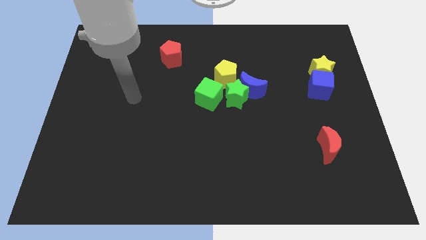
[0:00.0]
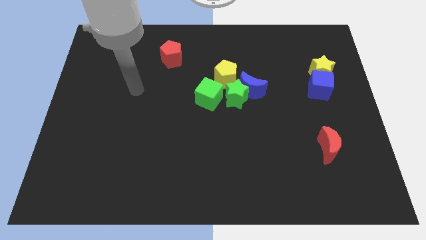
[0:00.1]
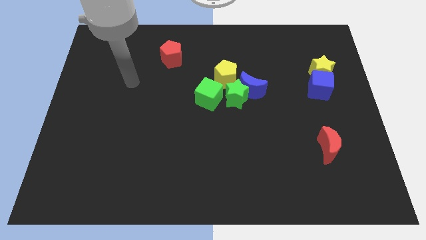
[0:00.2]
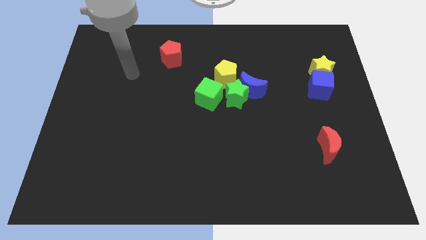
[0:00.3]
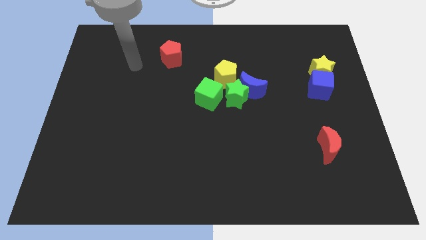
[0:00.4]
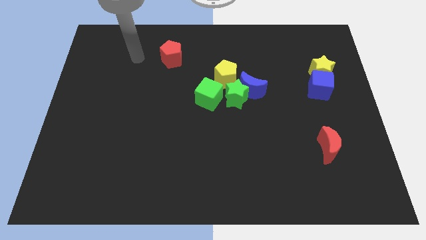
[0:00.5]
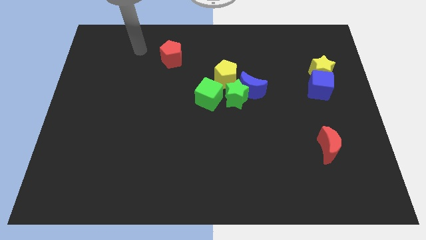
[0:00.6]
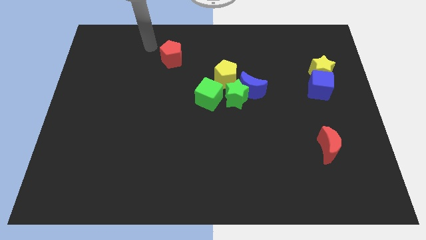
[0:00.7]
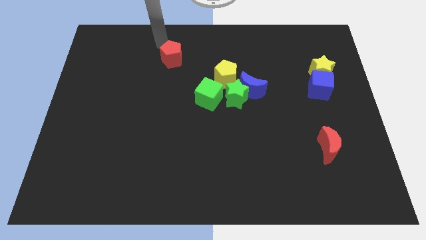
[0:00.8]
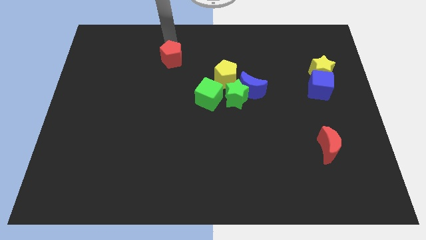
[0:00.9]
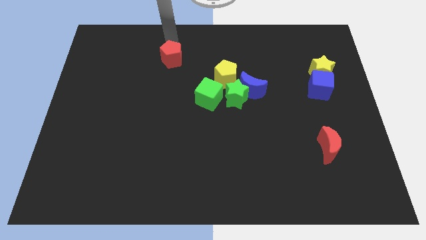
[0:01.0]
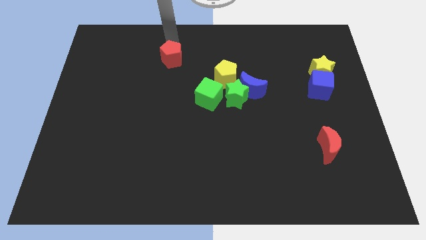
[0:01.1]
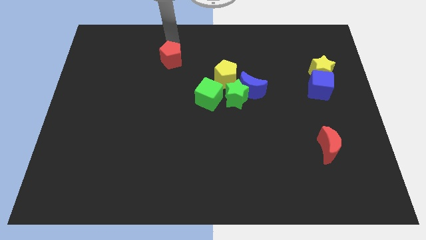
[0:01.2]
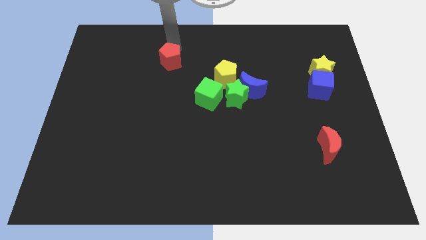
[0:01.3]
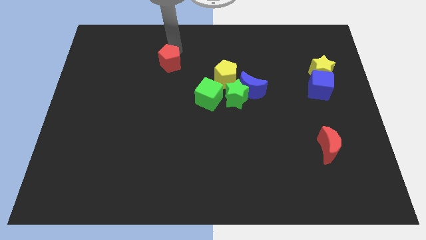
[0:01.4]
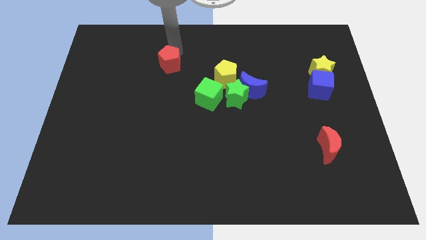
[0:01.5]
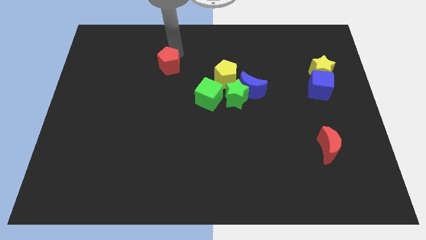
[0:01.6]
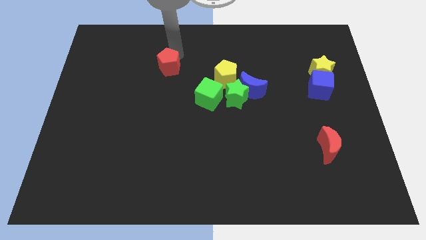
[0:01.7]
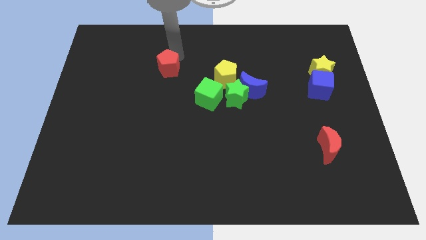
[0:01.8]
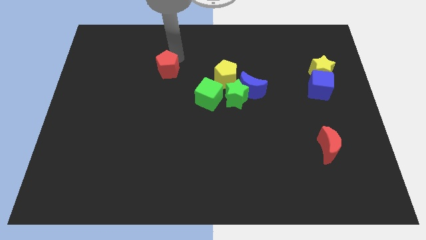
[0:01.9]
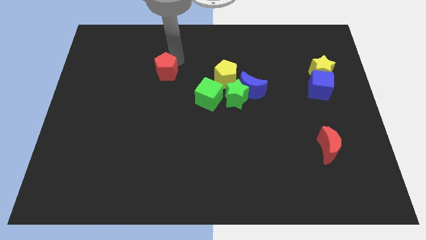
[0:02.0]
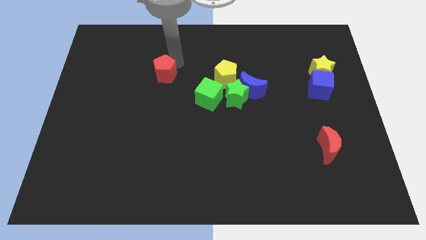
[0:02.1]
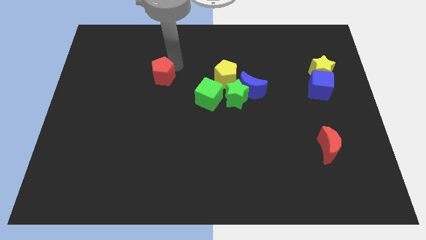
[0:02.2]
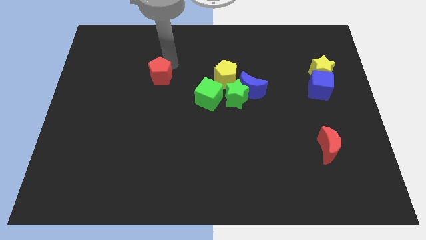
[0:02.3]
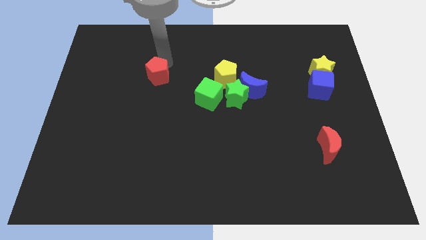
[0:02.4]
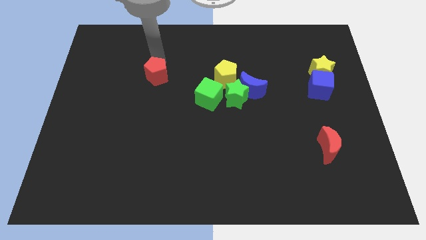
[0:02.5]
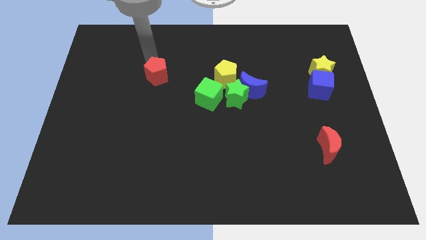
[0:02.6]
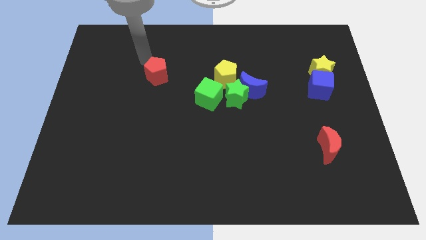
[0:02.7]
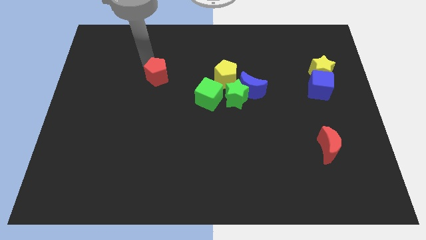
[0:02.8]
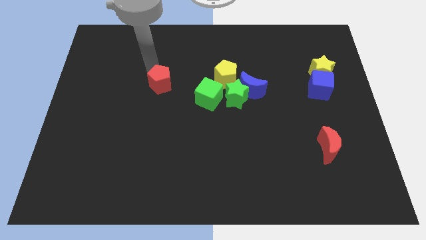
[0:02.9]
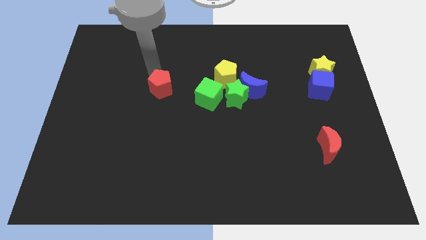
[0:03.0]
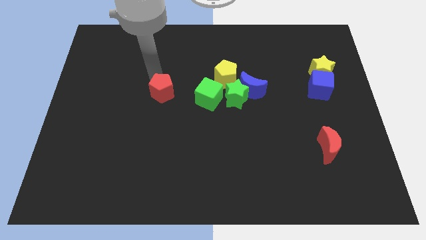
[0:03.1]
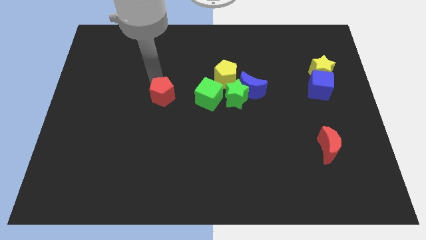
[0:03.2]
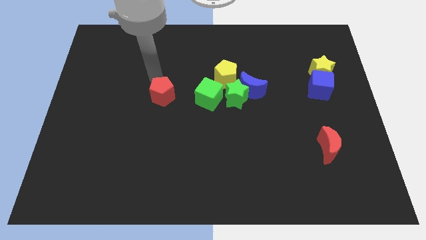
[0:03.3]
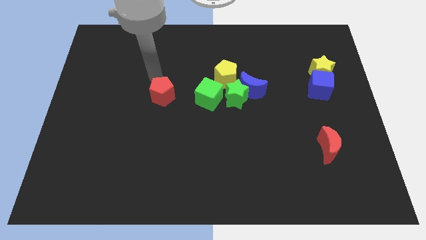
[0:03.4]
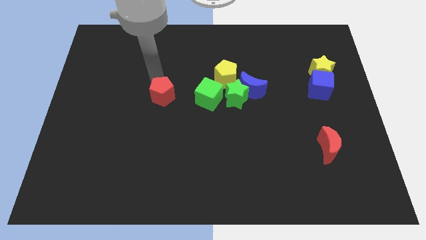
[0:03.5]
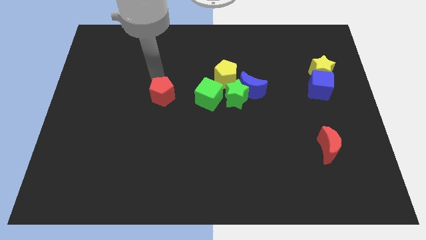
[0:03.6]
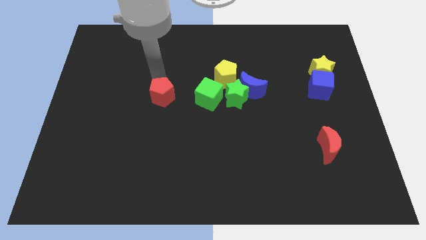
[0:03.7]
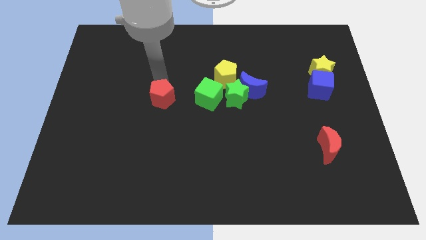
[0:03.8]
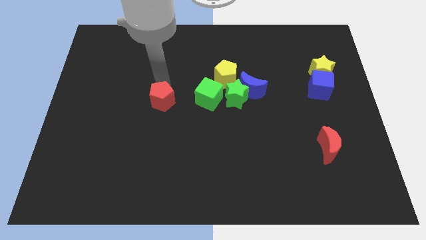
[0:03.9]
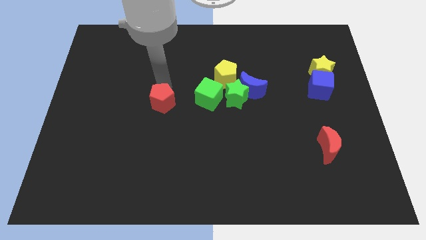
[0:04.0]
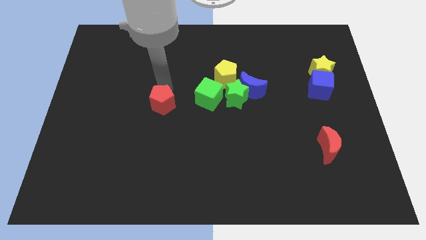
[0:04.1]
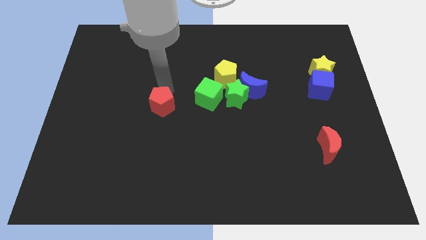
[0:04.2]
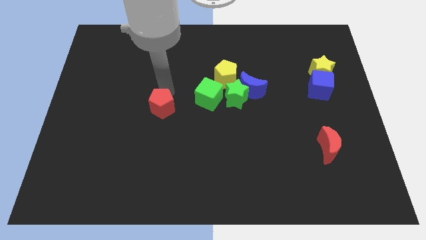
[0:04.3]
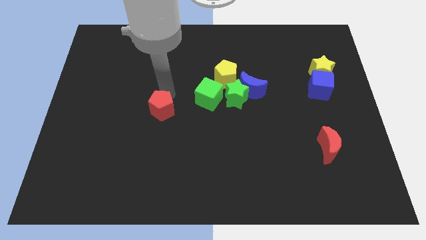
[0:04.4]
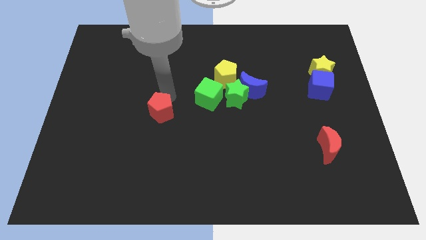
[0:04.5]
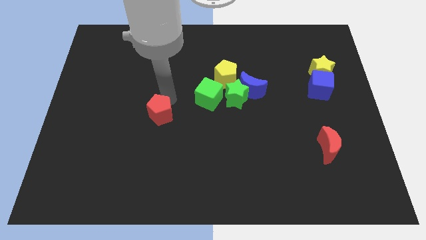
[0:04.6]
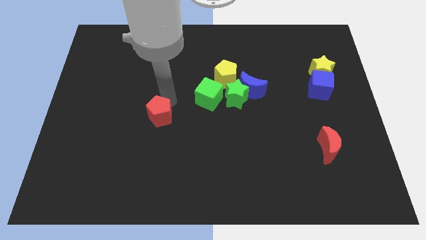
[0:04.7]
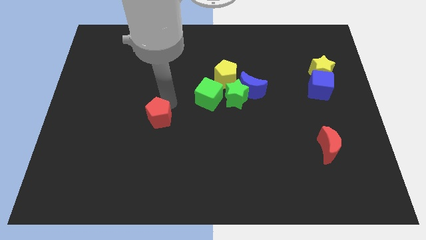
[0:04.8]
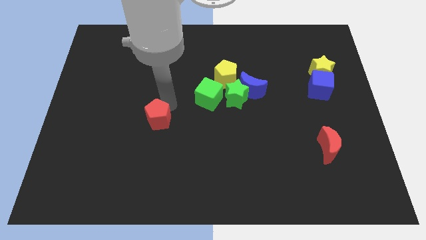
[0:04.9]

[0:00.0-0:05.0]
slide the red pentagon down

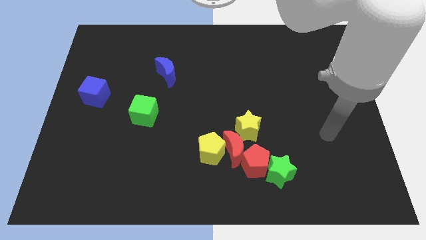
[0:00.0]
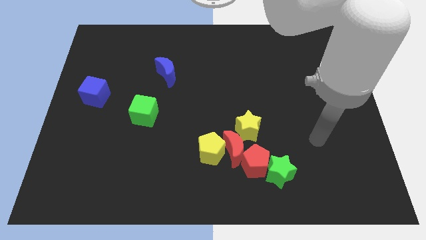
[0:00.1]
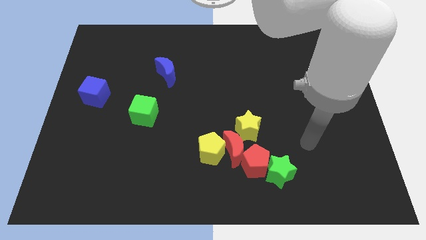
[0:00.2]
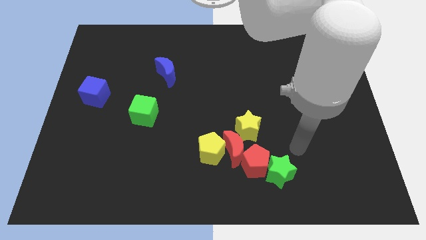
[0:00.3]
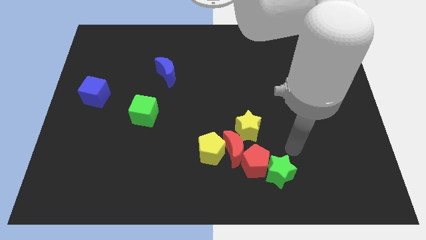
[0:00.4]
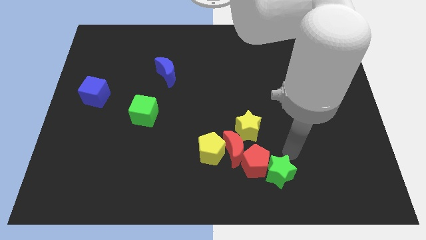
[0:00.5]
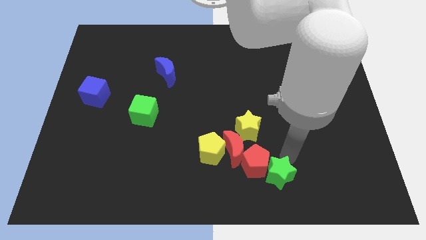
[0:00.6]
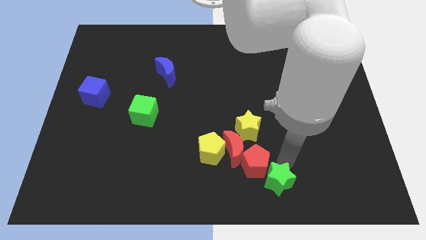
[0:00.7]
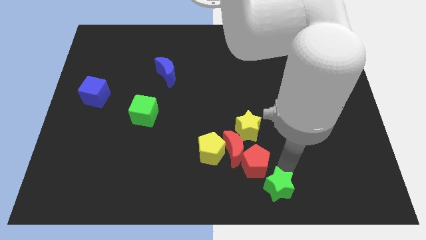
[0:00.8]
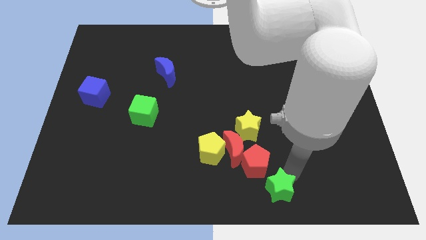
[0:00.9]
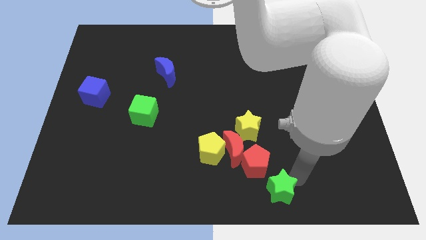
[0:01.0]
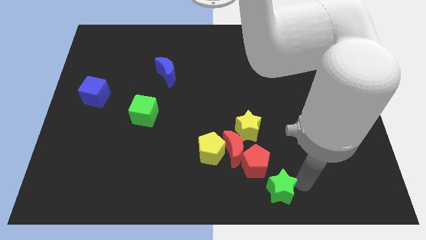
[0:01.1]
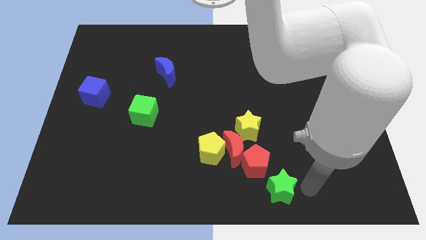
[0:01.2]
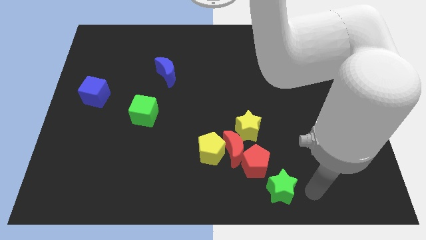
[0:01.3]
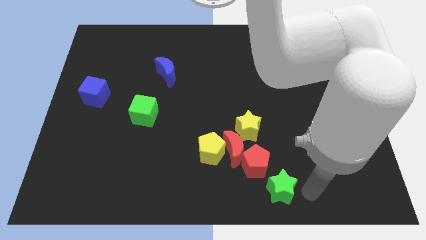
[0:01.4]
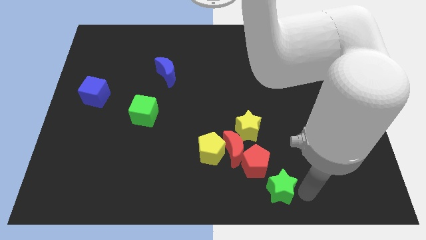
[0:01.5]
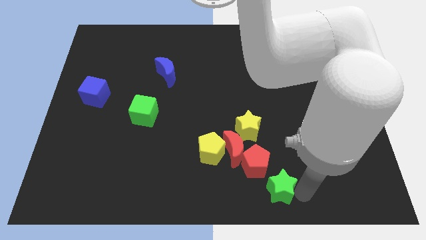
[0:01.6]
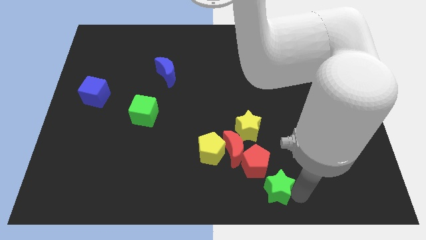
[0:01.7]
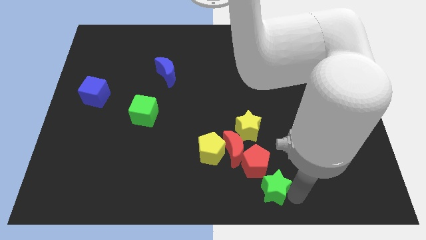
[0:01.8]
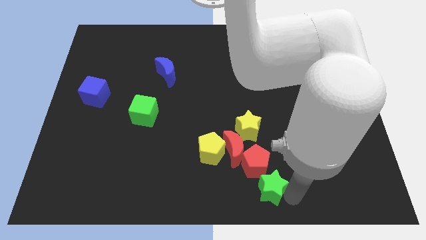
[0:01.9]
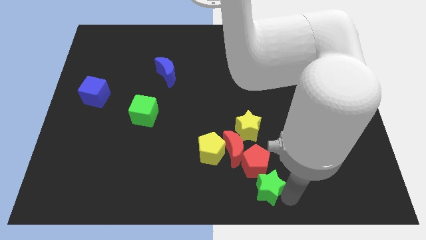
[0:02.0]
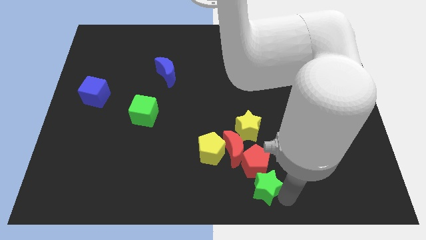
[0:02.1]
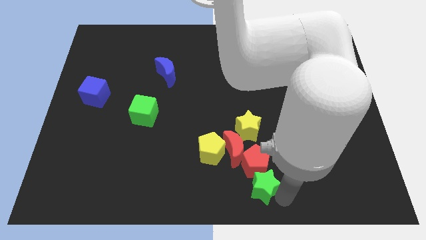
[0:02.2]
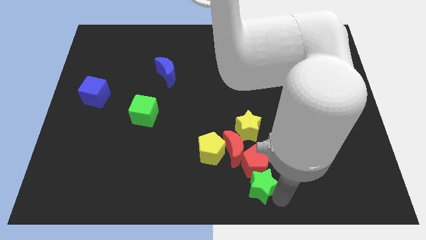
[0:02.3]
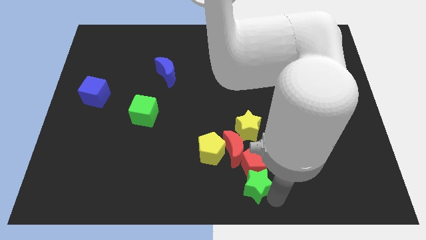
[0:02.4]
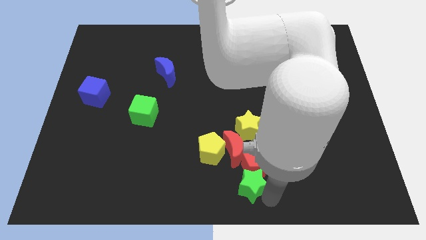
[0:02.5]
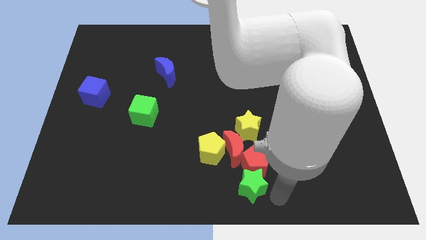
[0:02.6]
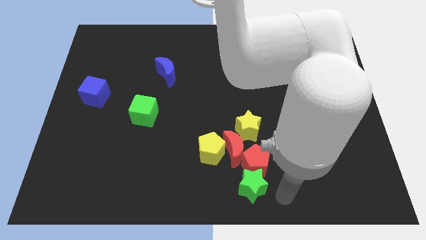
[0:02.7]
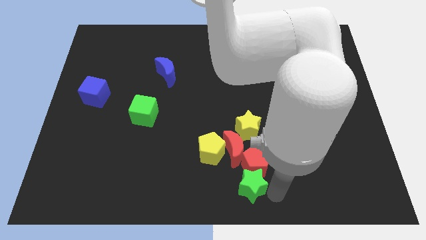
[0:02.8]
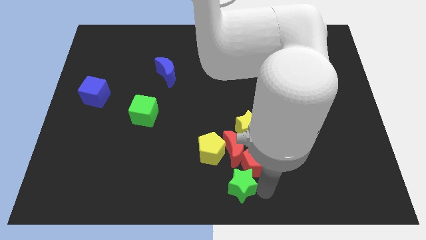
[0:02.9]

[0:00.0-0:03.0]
slightly move the green star left
